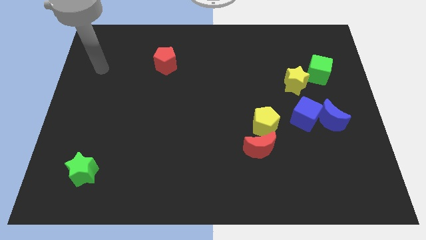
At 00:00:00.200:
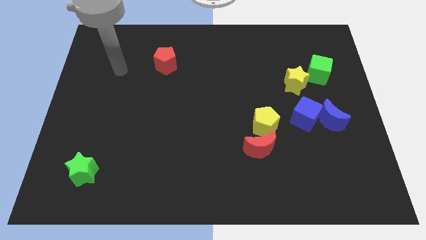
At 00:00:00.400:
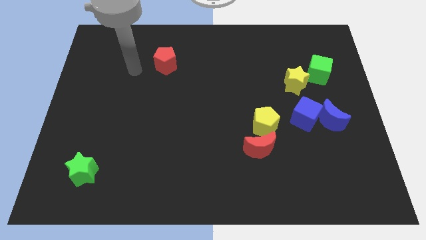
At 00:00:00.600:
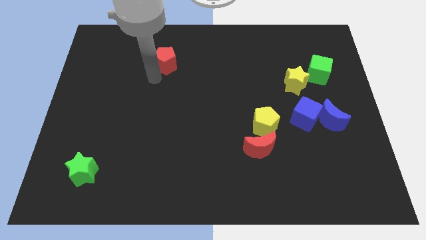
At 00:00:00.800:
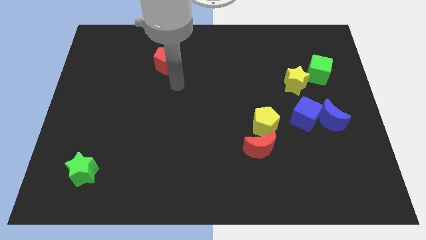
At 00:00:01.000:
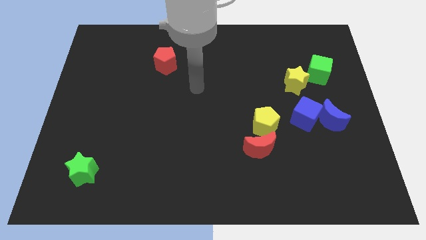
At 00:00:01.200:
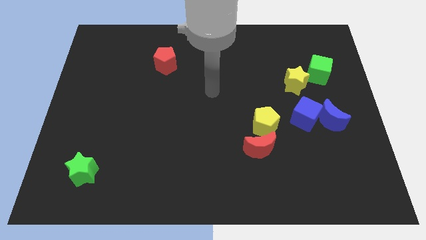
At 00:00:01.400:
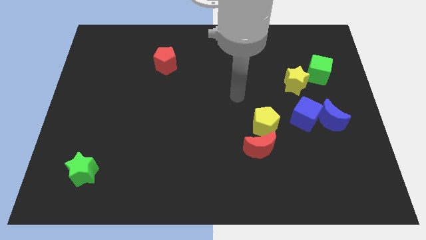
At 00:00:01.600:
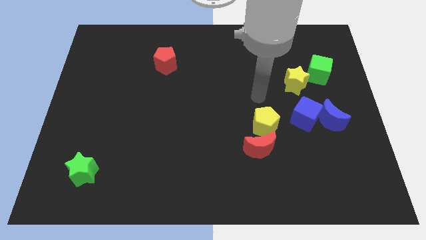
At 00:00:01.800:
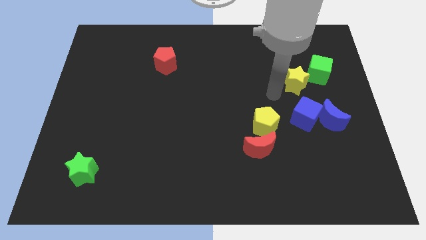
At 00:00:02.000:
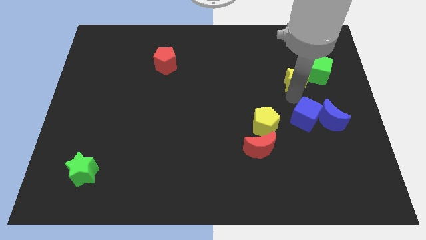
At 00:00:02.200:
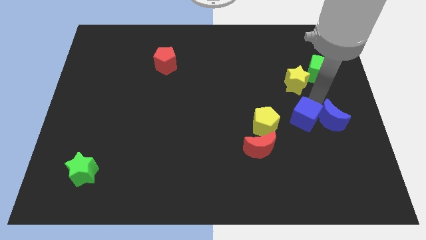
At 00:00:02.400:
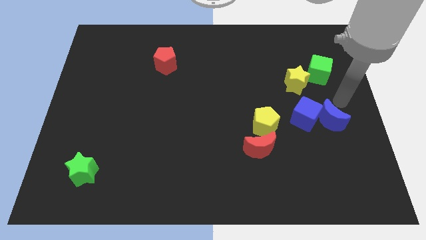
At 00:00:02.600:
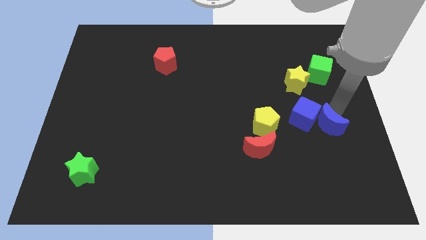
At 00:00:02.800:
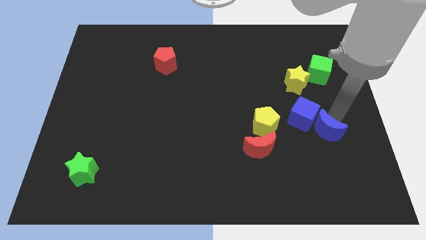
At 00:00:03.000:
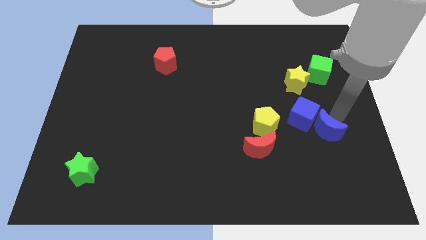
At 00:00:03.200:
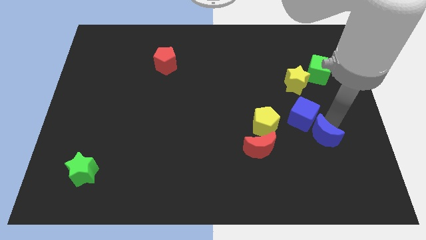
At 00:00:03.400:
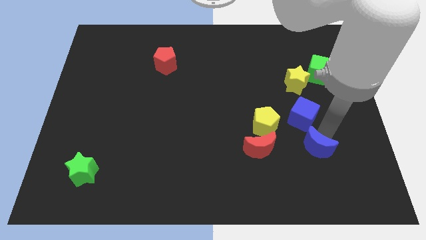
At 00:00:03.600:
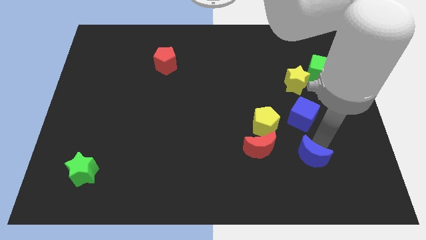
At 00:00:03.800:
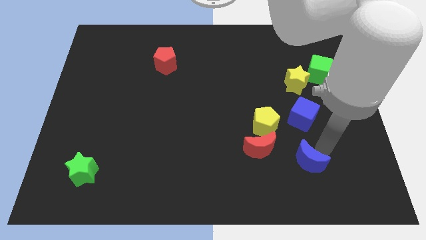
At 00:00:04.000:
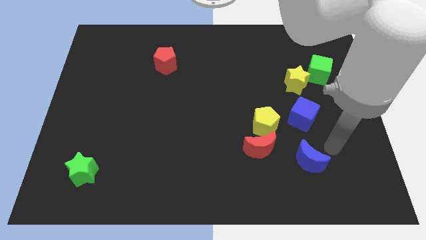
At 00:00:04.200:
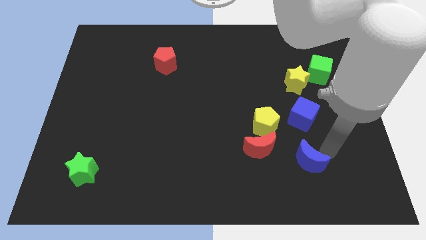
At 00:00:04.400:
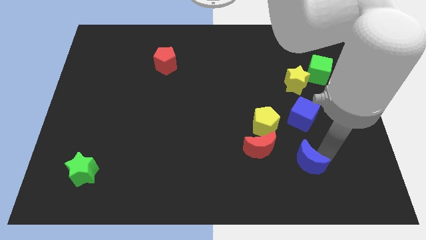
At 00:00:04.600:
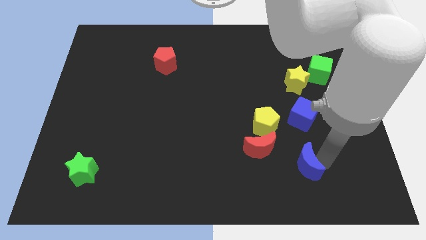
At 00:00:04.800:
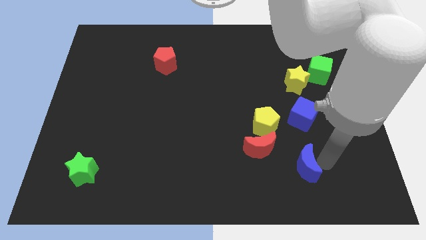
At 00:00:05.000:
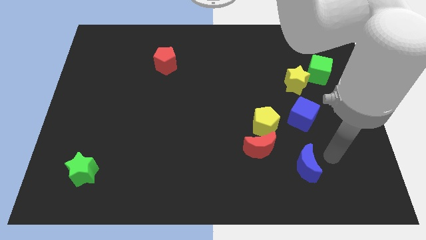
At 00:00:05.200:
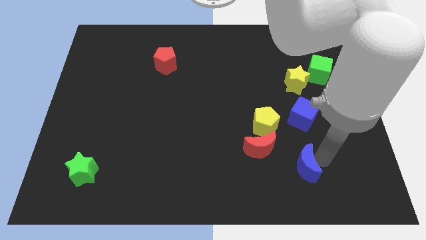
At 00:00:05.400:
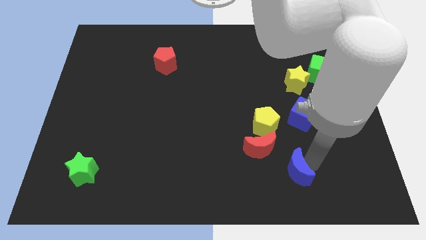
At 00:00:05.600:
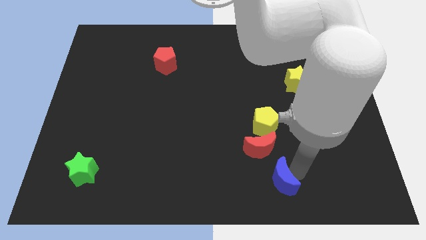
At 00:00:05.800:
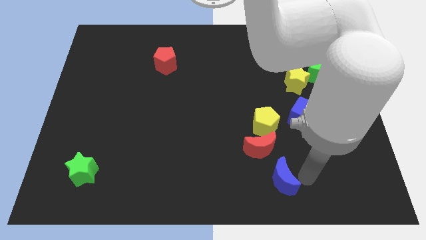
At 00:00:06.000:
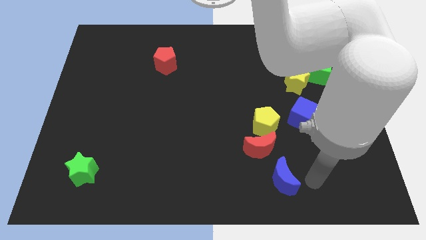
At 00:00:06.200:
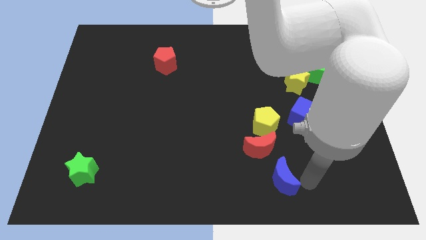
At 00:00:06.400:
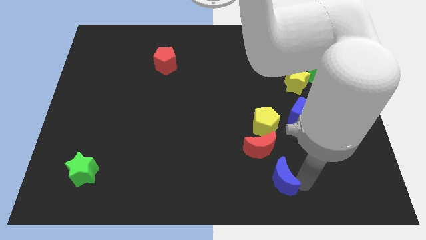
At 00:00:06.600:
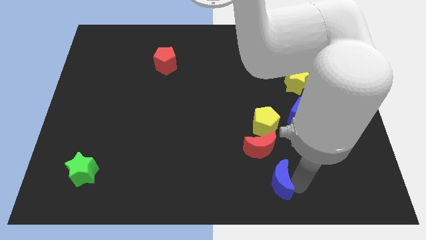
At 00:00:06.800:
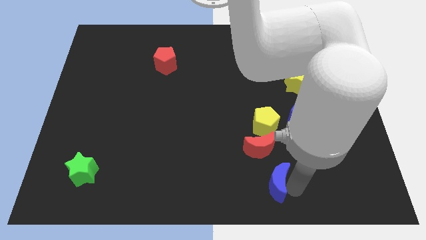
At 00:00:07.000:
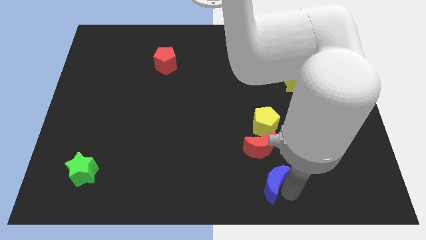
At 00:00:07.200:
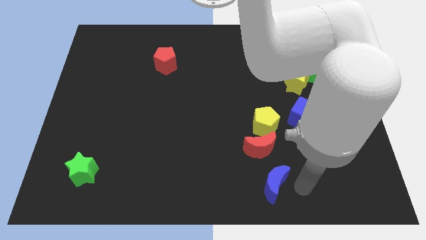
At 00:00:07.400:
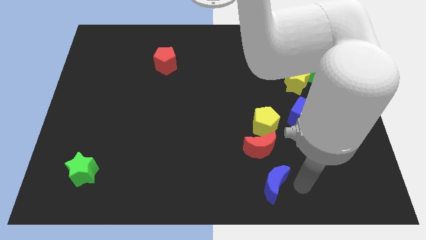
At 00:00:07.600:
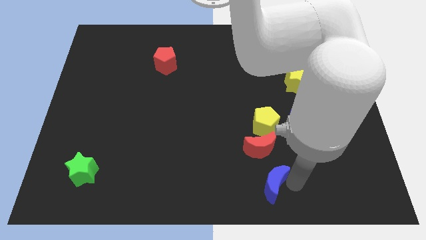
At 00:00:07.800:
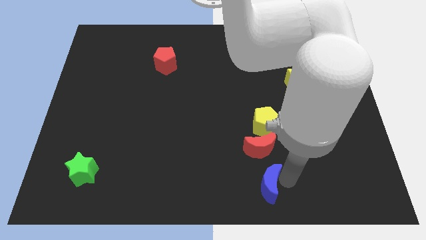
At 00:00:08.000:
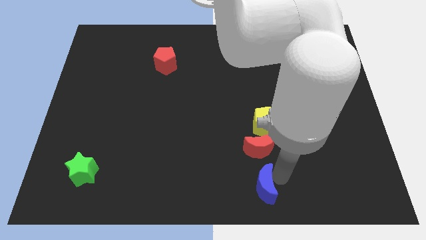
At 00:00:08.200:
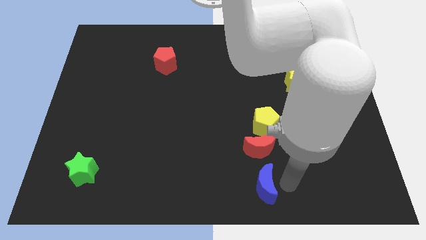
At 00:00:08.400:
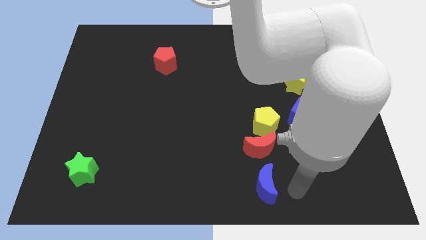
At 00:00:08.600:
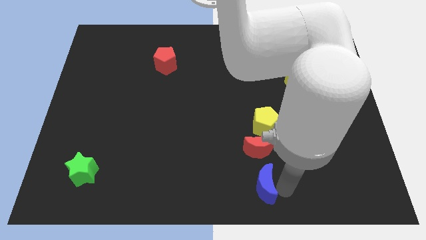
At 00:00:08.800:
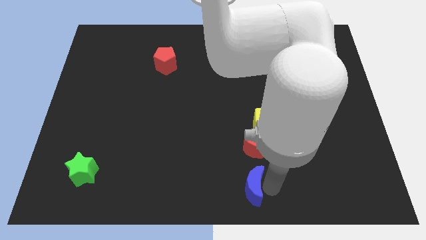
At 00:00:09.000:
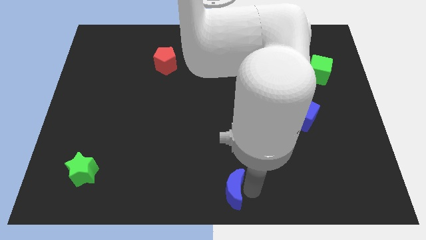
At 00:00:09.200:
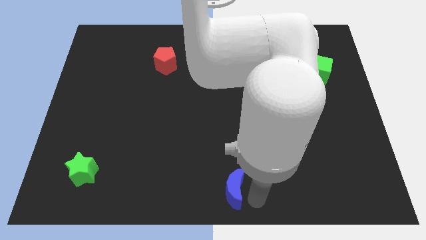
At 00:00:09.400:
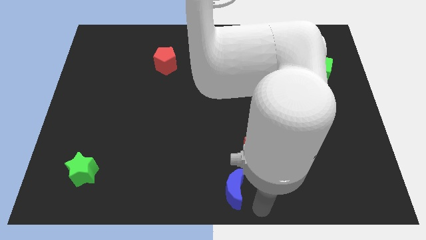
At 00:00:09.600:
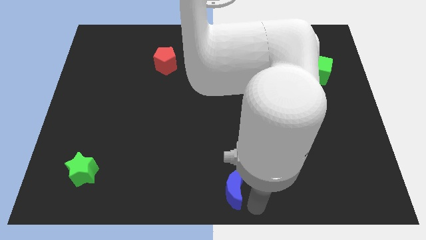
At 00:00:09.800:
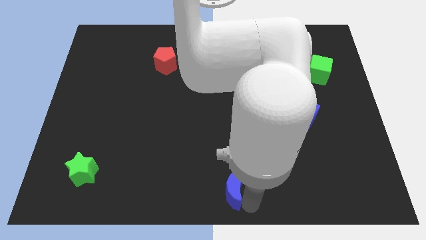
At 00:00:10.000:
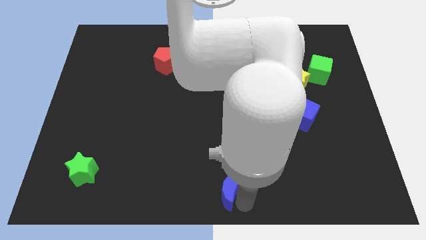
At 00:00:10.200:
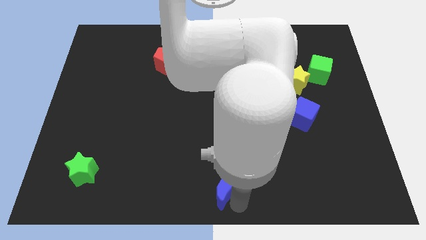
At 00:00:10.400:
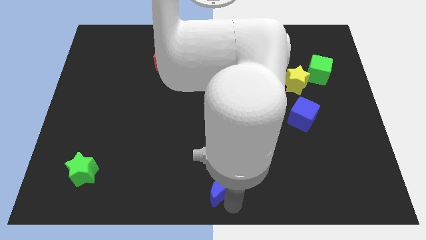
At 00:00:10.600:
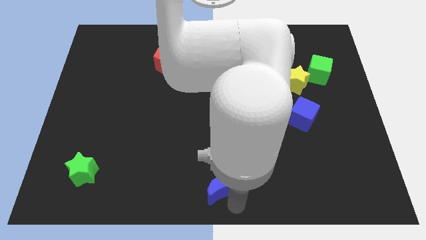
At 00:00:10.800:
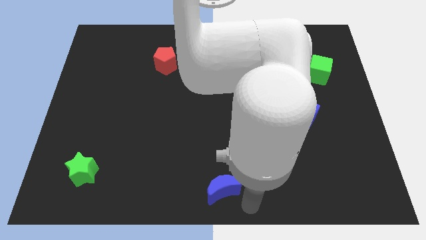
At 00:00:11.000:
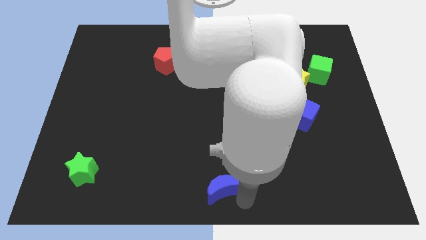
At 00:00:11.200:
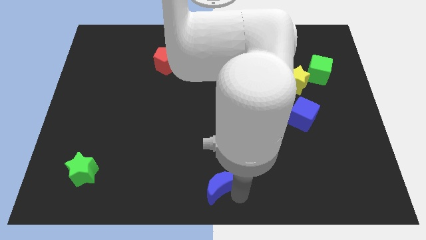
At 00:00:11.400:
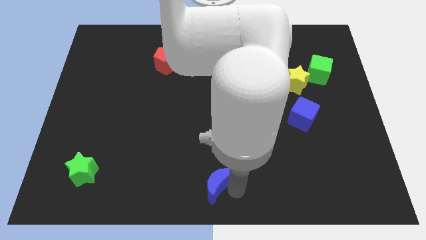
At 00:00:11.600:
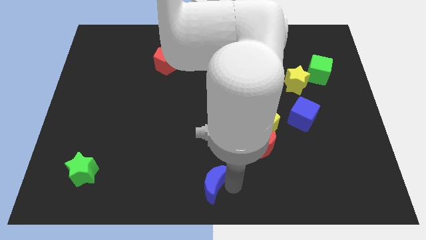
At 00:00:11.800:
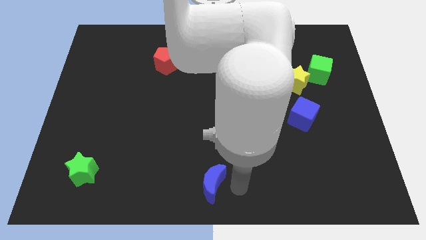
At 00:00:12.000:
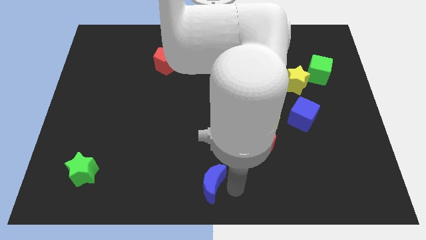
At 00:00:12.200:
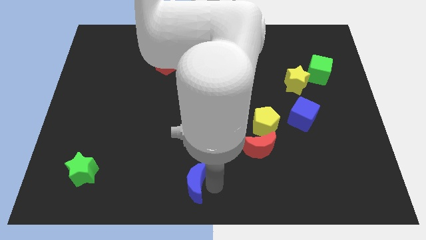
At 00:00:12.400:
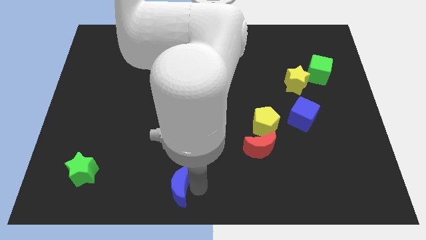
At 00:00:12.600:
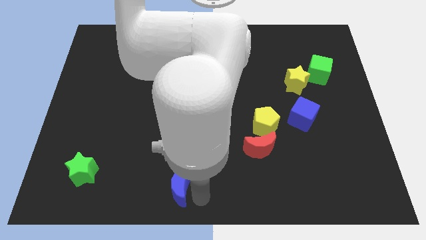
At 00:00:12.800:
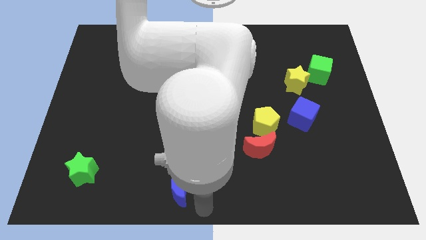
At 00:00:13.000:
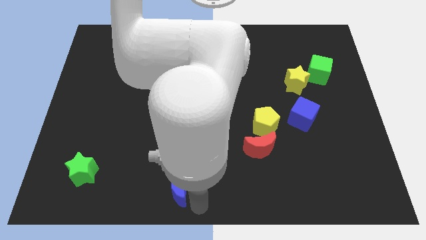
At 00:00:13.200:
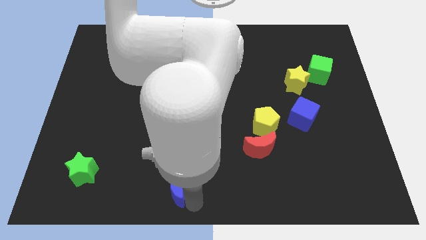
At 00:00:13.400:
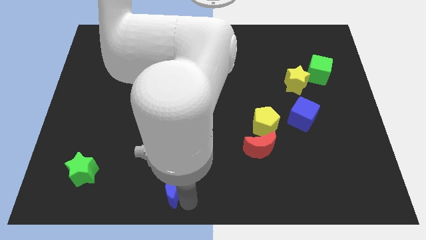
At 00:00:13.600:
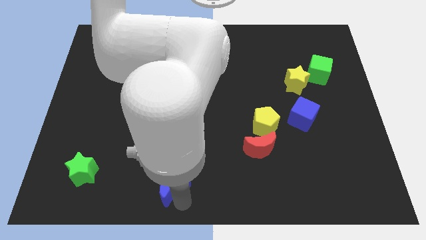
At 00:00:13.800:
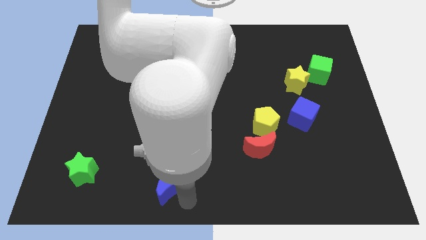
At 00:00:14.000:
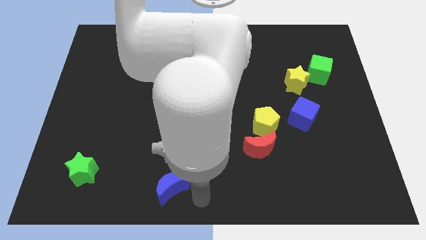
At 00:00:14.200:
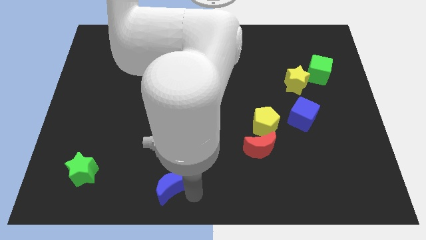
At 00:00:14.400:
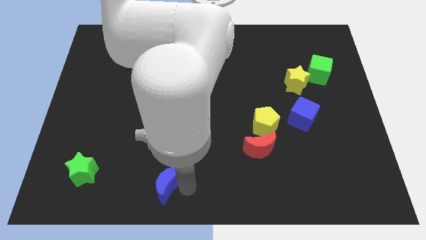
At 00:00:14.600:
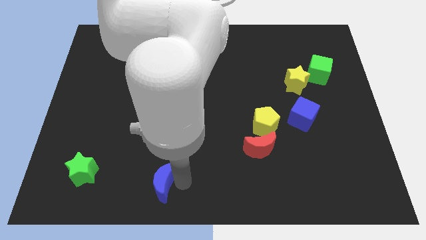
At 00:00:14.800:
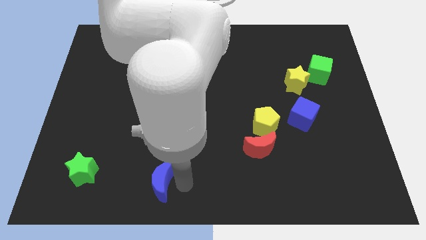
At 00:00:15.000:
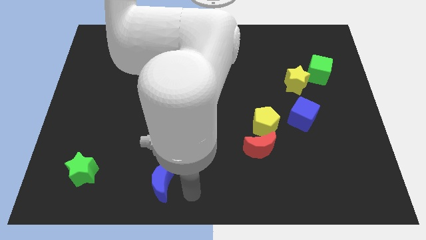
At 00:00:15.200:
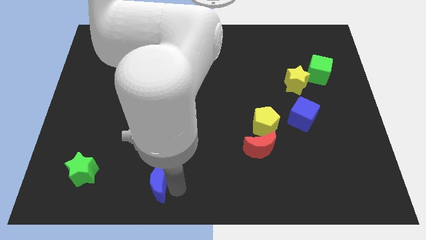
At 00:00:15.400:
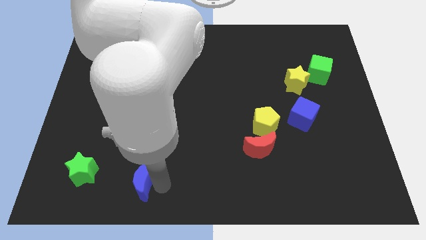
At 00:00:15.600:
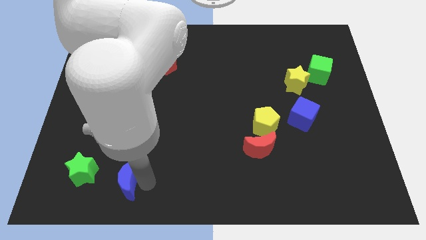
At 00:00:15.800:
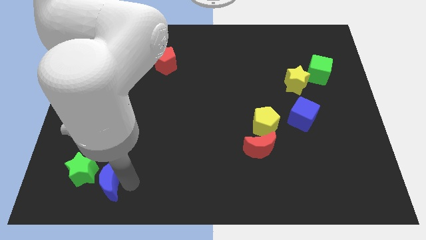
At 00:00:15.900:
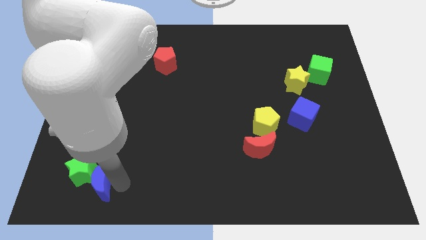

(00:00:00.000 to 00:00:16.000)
put the blue moon towards the green star
